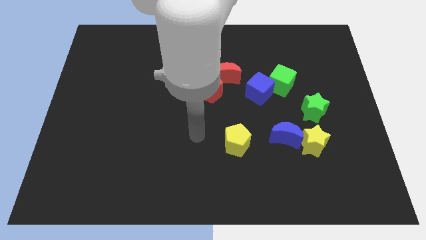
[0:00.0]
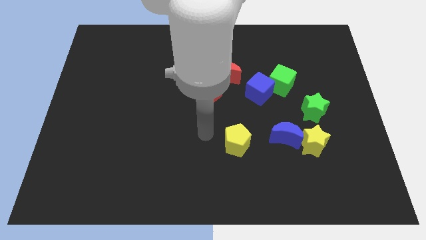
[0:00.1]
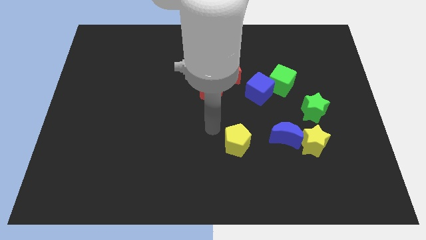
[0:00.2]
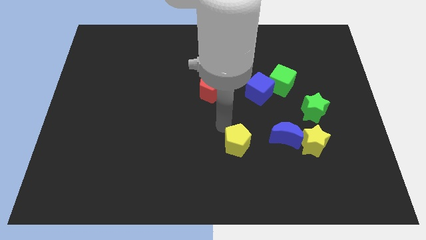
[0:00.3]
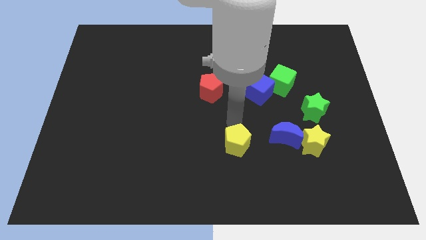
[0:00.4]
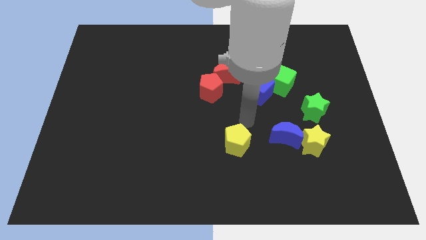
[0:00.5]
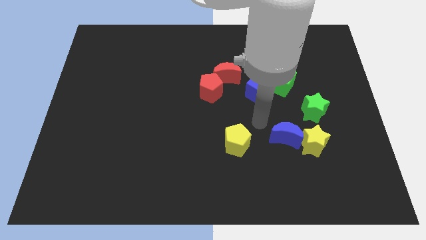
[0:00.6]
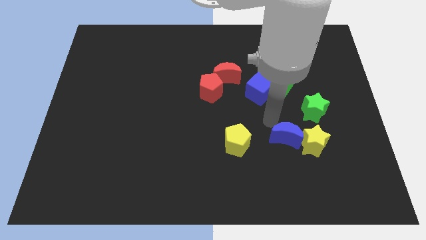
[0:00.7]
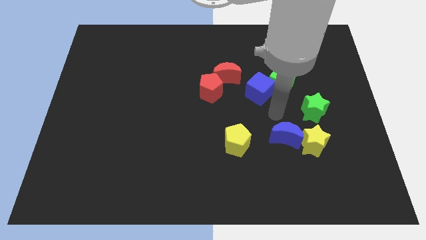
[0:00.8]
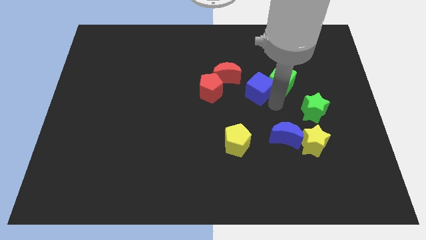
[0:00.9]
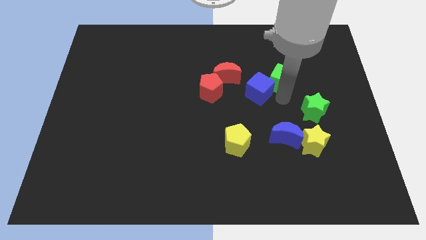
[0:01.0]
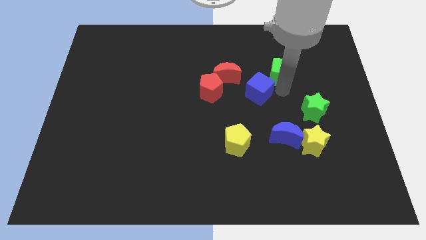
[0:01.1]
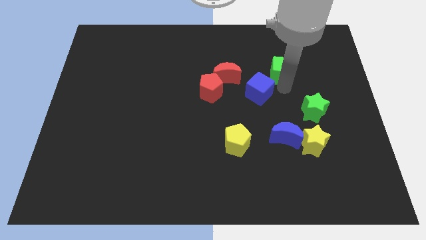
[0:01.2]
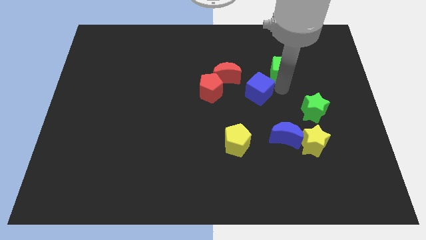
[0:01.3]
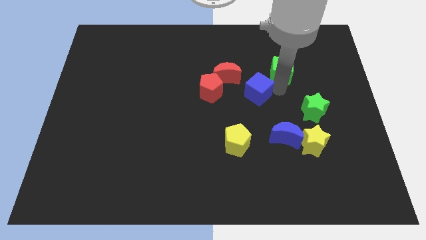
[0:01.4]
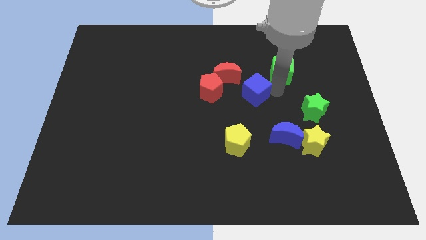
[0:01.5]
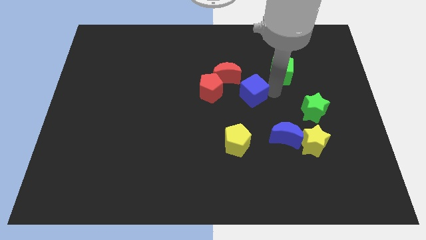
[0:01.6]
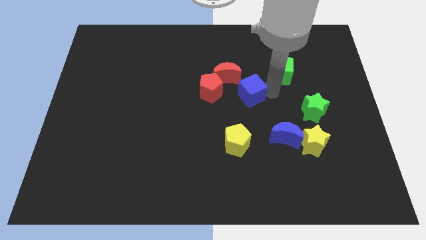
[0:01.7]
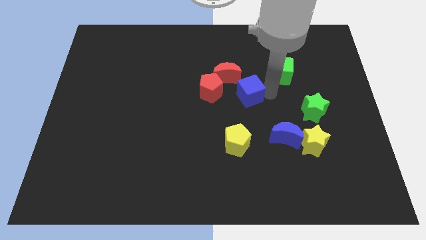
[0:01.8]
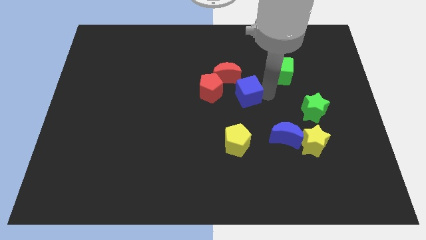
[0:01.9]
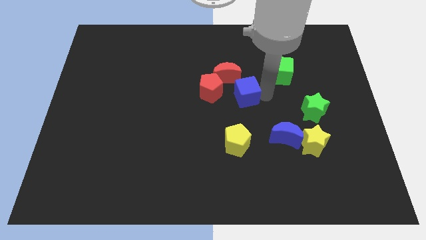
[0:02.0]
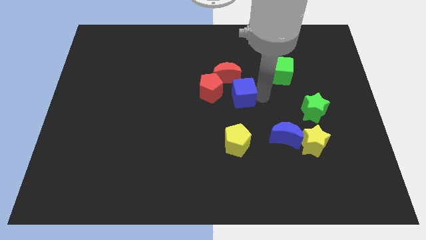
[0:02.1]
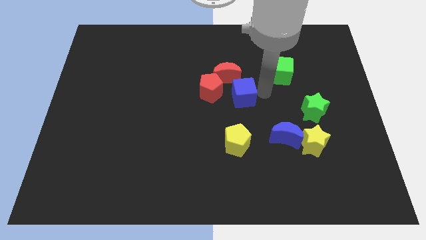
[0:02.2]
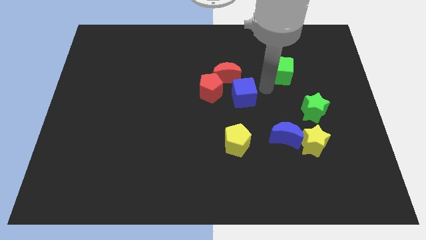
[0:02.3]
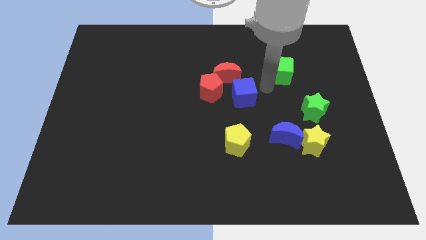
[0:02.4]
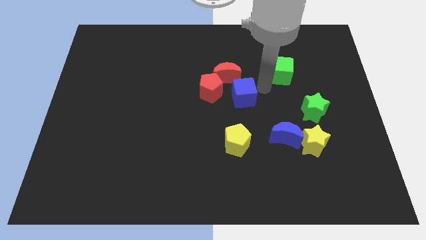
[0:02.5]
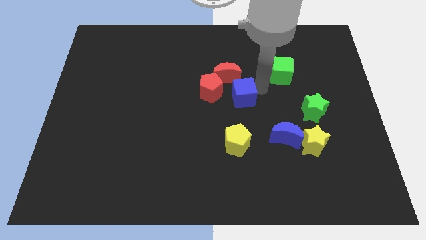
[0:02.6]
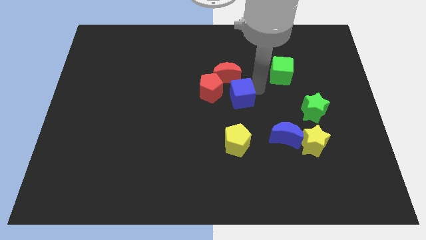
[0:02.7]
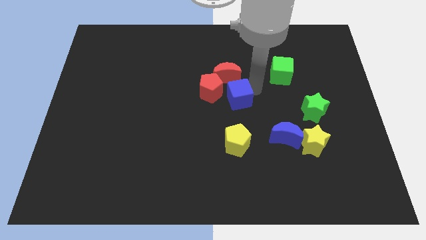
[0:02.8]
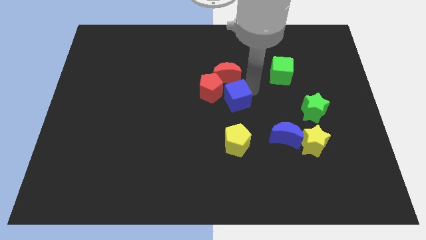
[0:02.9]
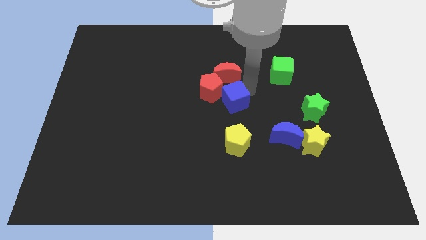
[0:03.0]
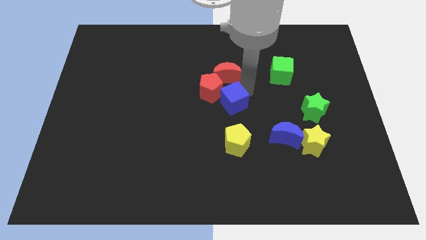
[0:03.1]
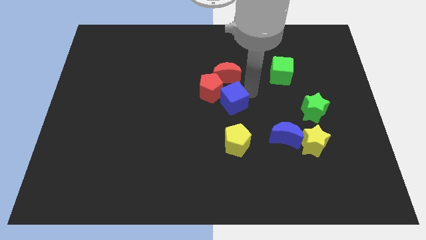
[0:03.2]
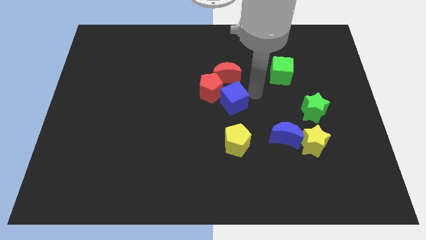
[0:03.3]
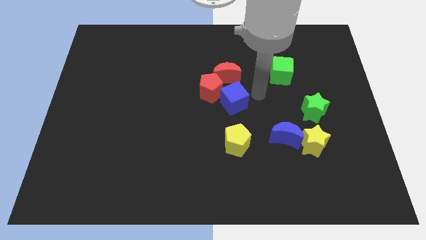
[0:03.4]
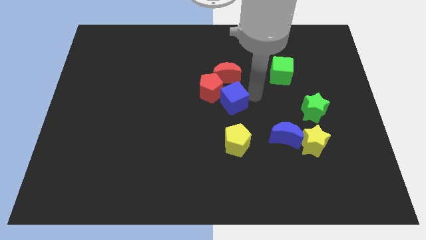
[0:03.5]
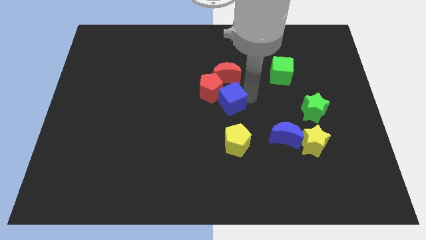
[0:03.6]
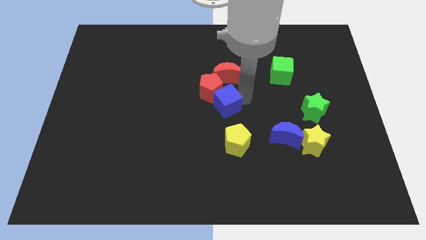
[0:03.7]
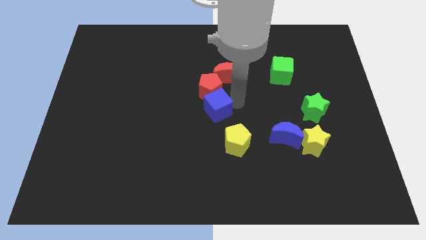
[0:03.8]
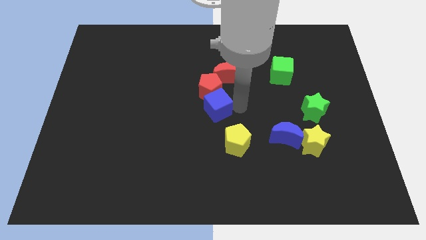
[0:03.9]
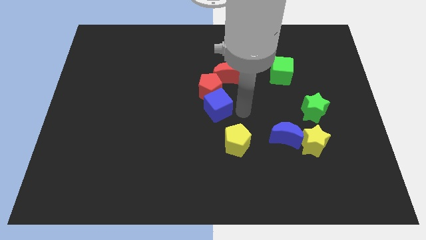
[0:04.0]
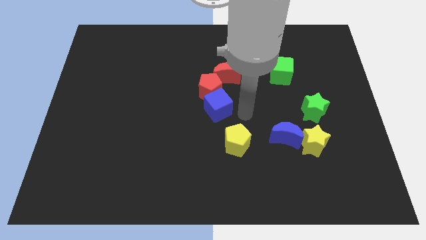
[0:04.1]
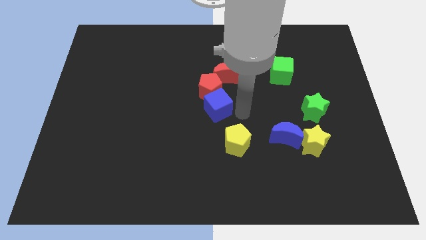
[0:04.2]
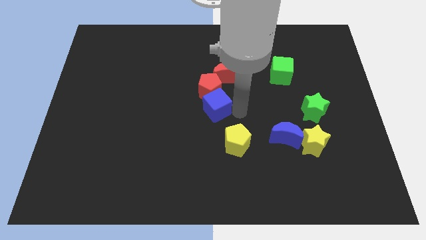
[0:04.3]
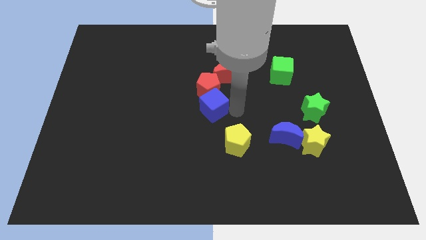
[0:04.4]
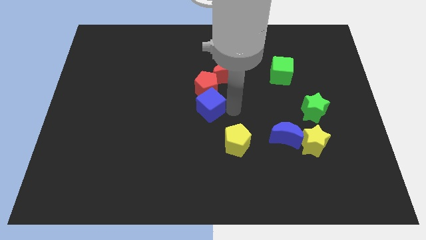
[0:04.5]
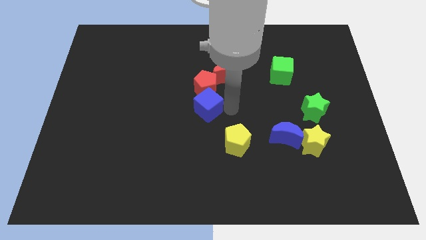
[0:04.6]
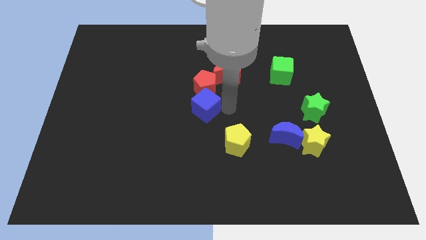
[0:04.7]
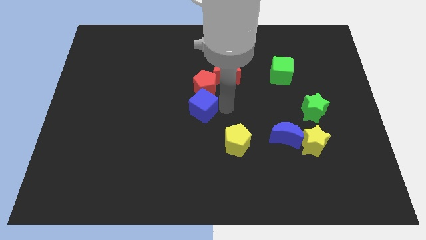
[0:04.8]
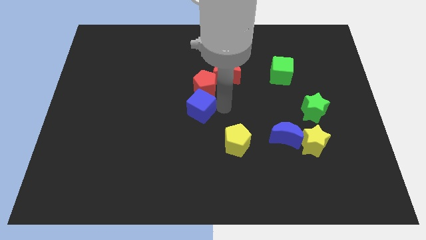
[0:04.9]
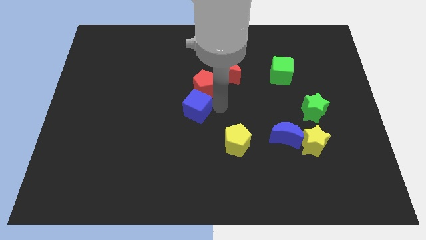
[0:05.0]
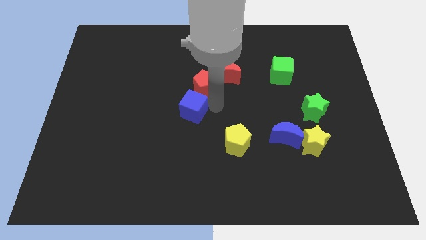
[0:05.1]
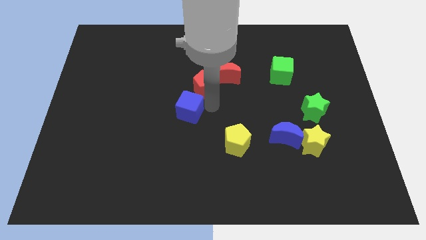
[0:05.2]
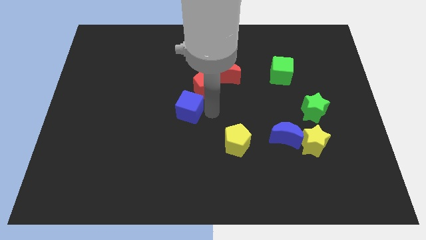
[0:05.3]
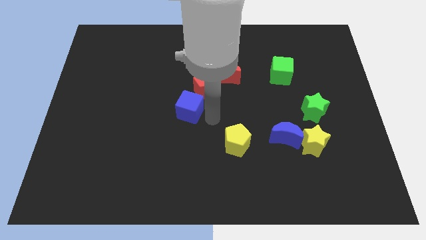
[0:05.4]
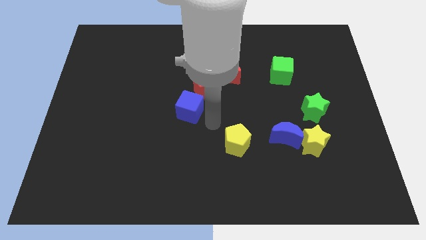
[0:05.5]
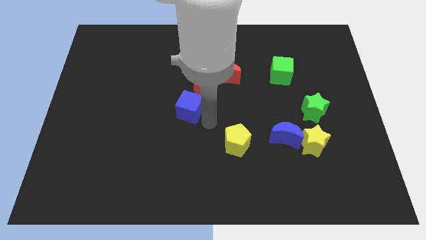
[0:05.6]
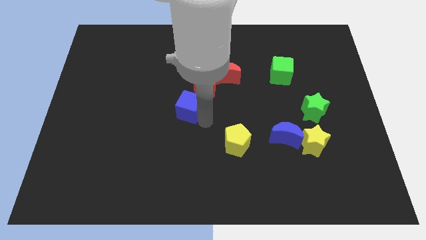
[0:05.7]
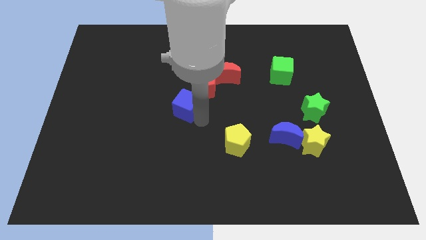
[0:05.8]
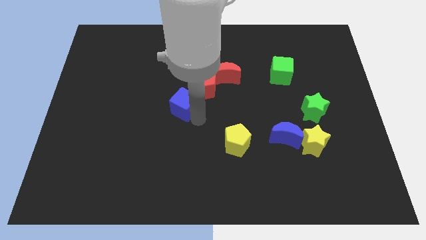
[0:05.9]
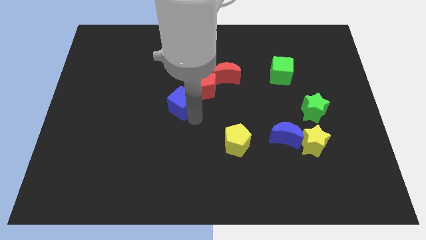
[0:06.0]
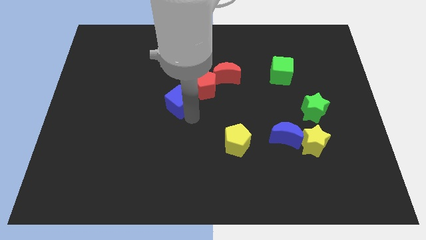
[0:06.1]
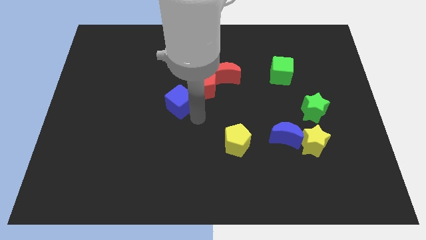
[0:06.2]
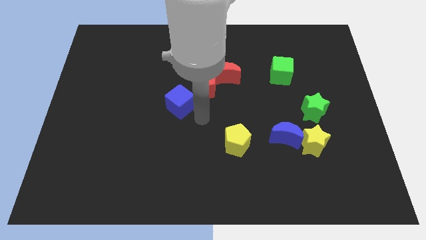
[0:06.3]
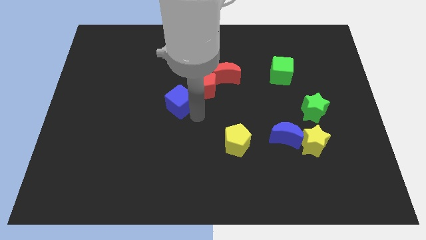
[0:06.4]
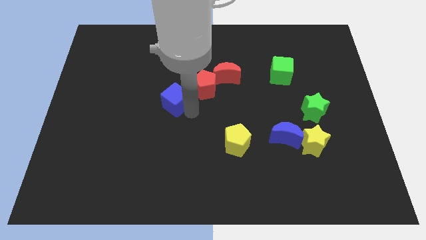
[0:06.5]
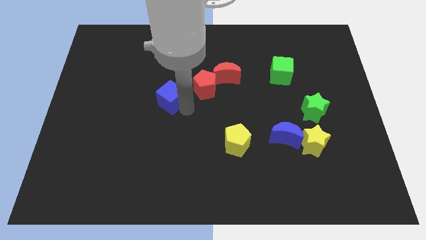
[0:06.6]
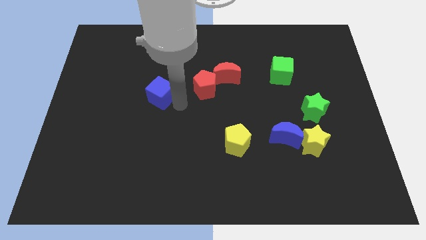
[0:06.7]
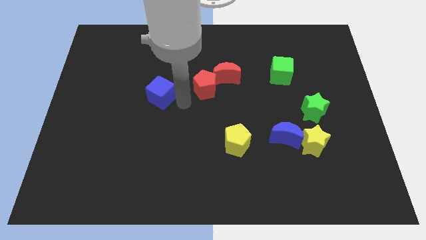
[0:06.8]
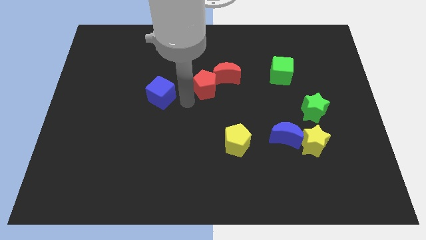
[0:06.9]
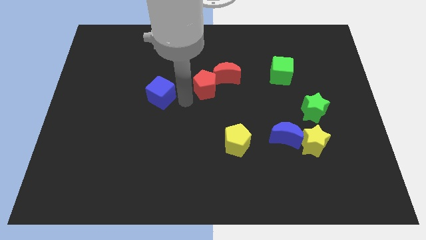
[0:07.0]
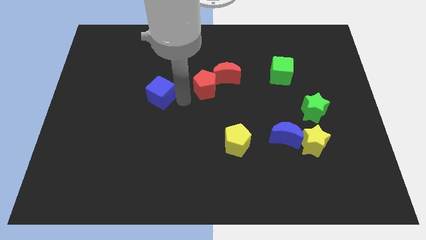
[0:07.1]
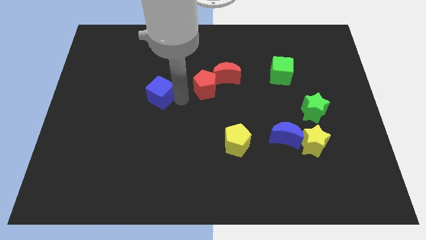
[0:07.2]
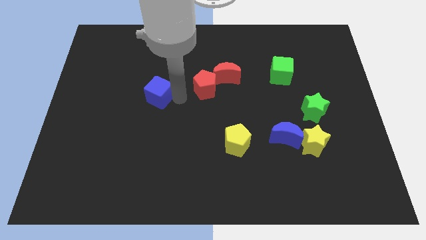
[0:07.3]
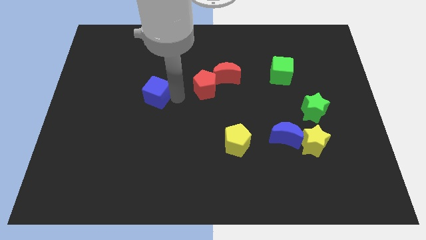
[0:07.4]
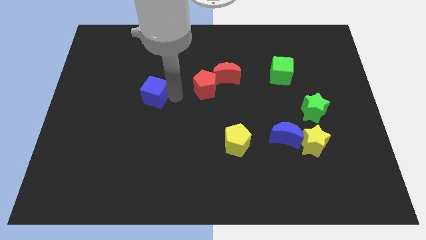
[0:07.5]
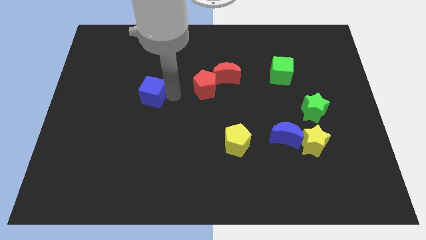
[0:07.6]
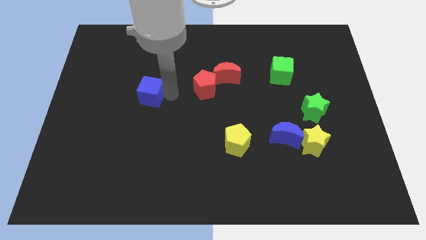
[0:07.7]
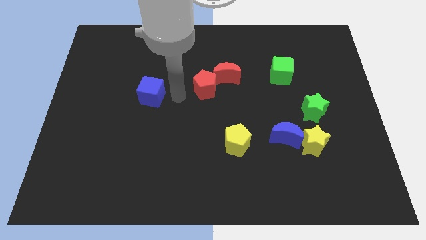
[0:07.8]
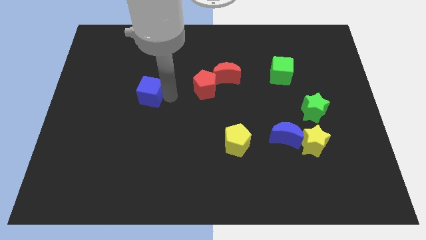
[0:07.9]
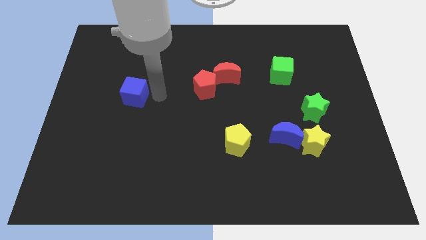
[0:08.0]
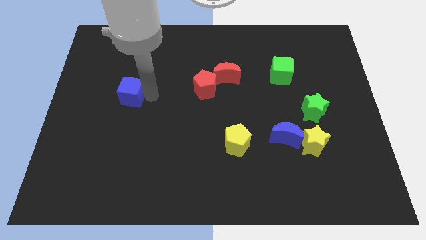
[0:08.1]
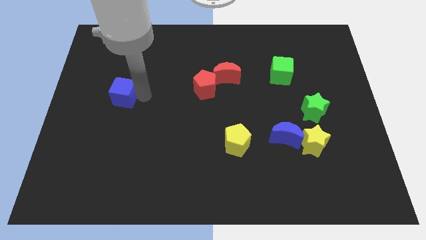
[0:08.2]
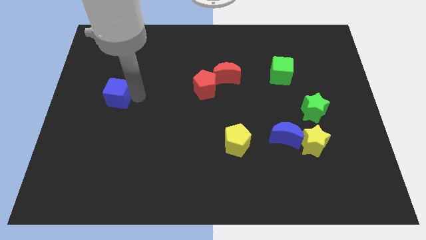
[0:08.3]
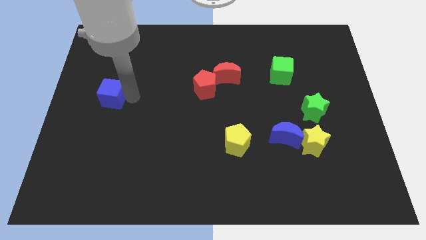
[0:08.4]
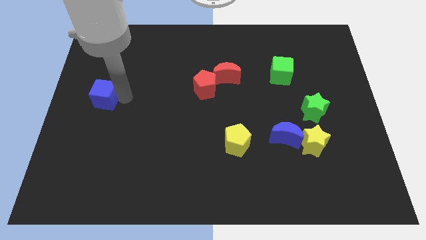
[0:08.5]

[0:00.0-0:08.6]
slide the blue cube to the left side of the board
